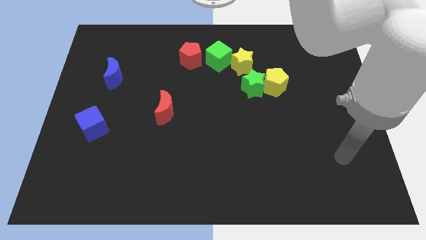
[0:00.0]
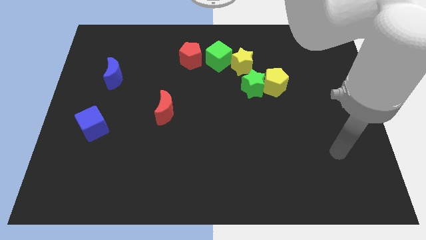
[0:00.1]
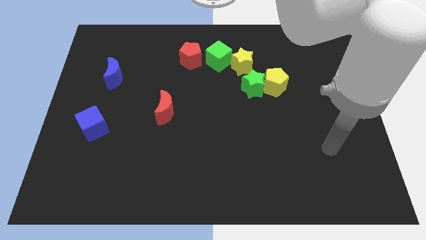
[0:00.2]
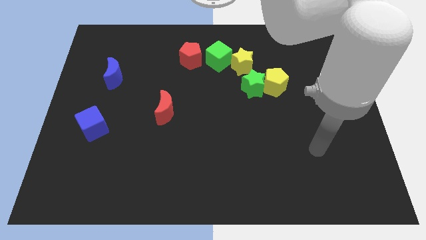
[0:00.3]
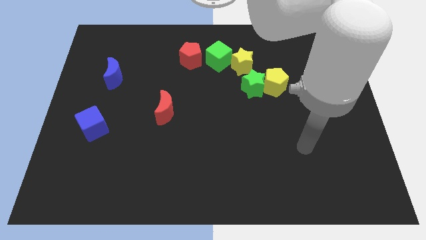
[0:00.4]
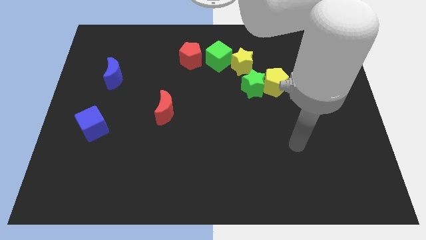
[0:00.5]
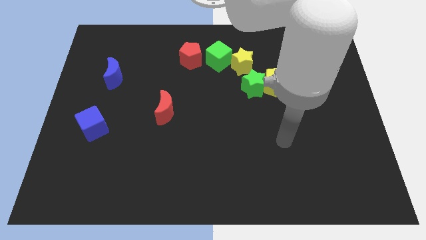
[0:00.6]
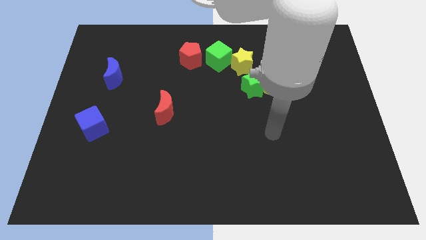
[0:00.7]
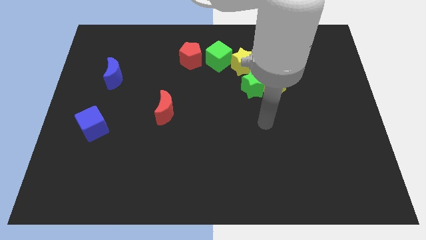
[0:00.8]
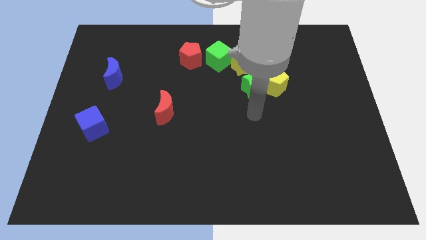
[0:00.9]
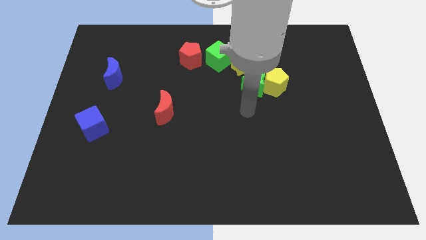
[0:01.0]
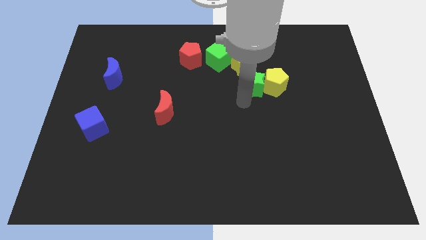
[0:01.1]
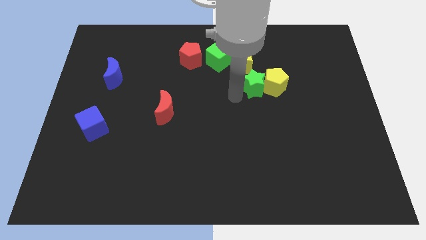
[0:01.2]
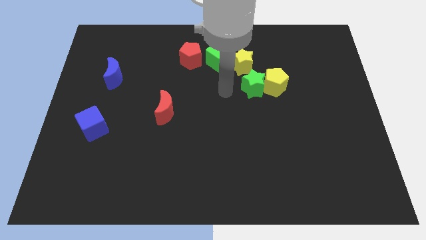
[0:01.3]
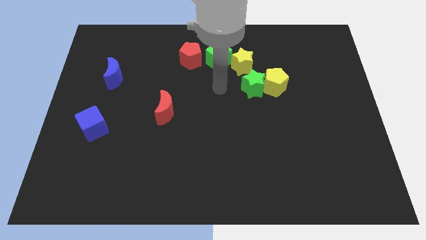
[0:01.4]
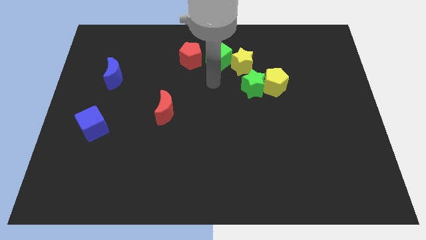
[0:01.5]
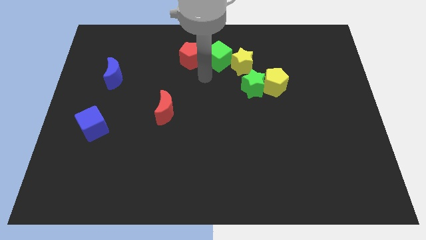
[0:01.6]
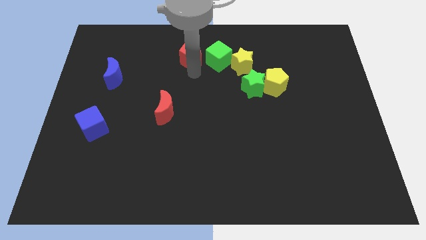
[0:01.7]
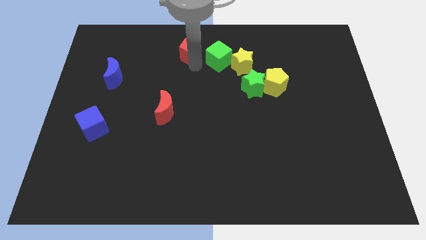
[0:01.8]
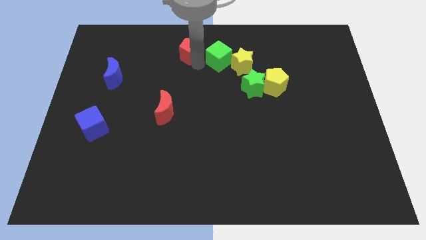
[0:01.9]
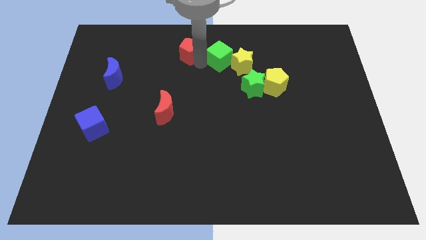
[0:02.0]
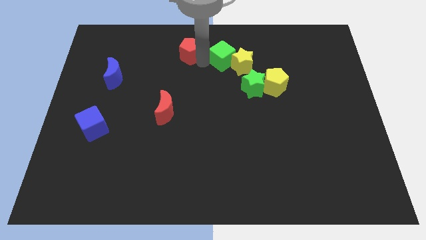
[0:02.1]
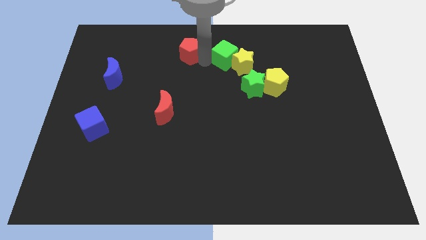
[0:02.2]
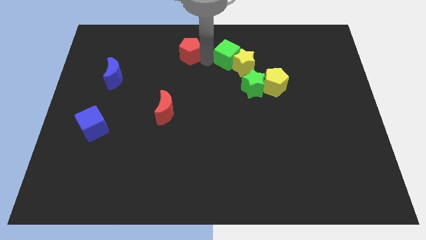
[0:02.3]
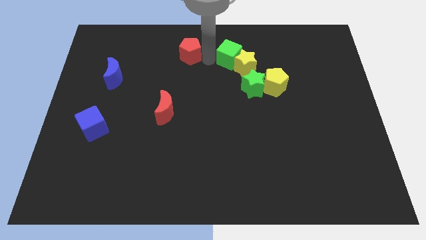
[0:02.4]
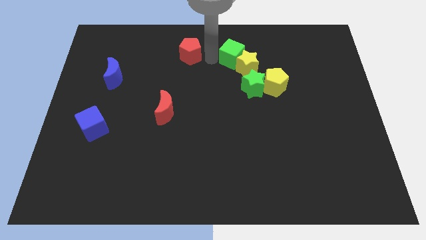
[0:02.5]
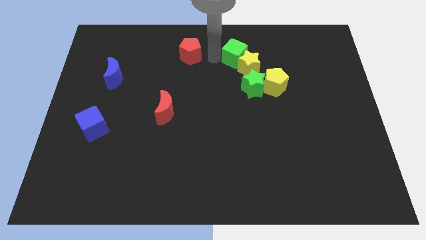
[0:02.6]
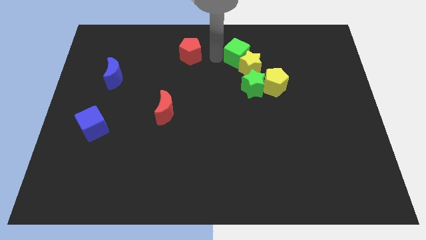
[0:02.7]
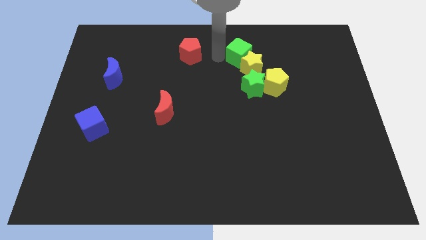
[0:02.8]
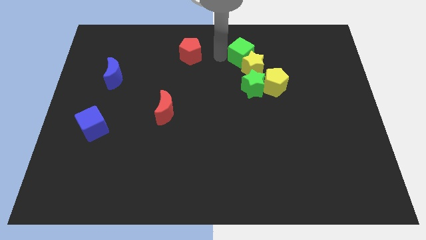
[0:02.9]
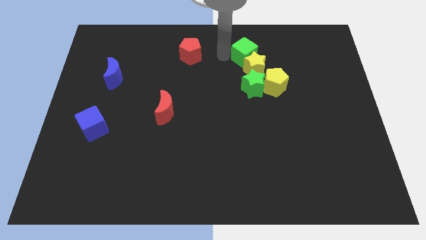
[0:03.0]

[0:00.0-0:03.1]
slightly move the green cube right

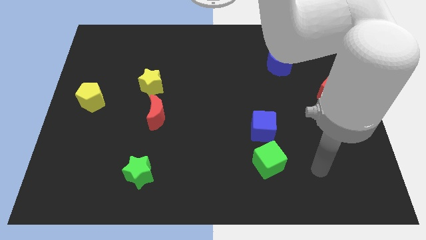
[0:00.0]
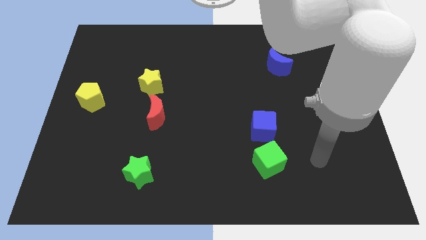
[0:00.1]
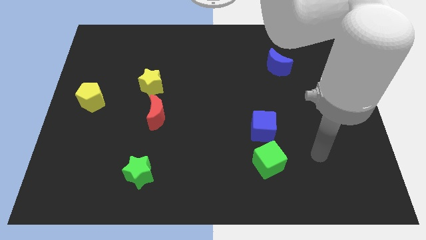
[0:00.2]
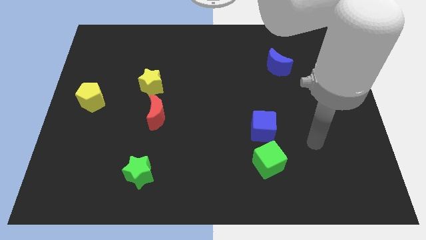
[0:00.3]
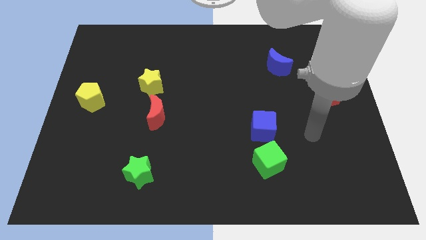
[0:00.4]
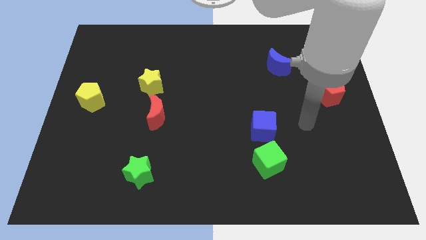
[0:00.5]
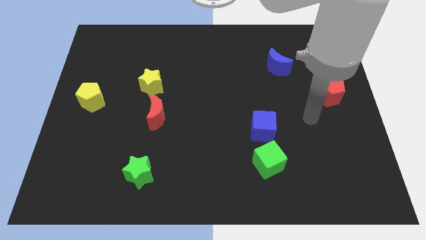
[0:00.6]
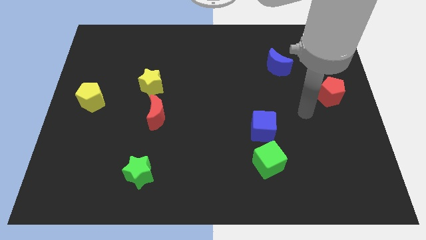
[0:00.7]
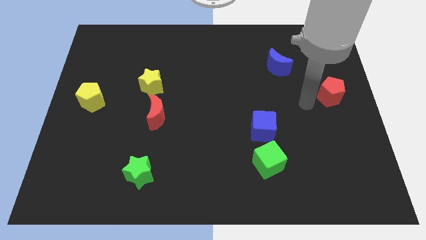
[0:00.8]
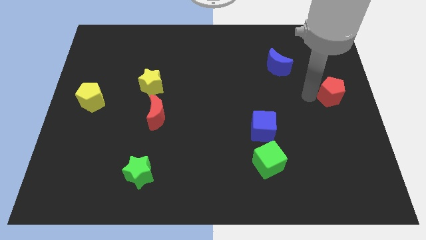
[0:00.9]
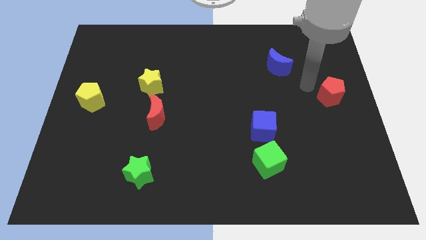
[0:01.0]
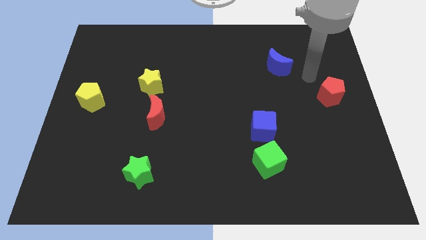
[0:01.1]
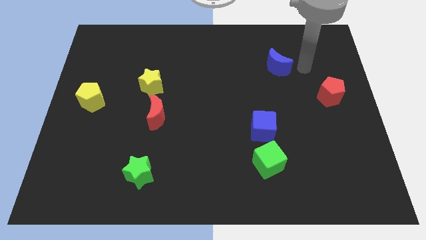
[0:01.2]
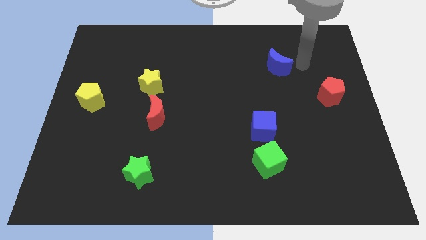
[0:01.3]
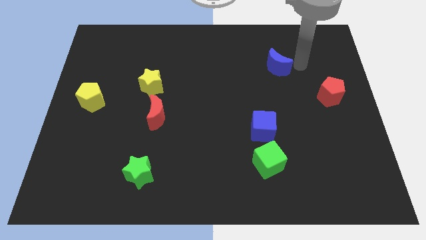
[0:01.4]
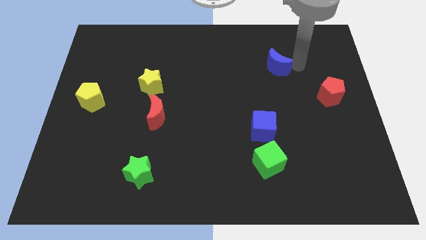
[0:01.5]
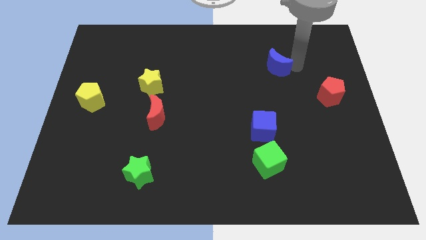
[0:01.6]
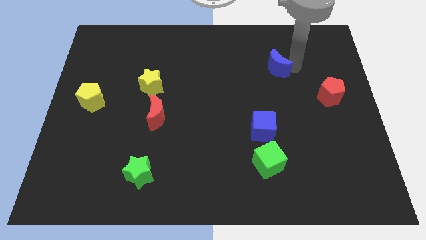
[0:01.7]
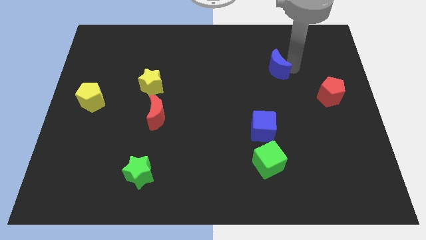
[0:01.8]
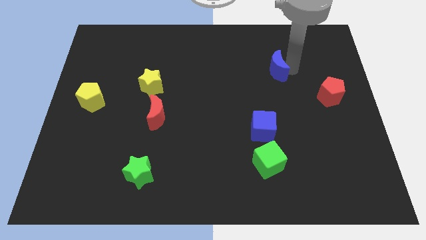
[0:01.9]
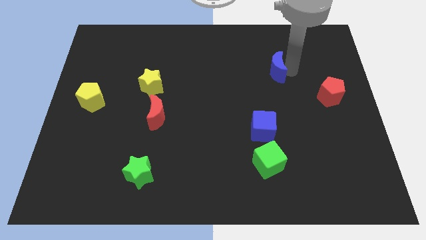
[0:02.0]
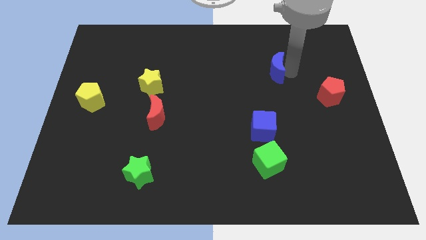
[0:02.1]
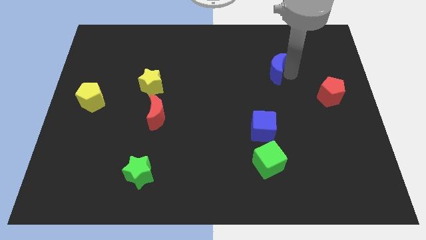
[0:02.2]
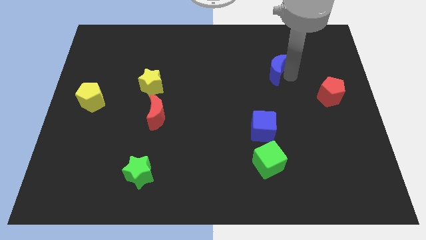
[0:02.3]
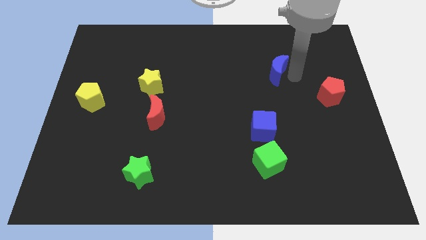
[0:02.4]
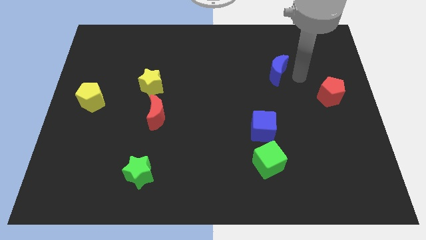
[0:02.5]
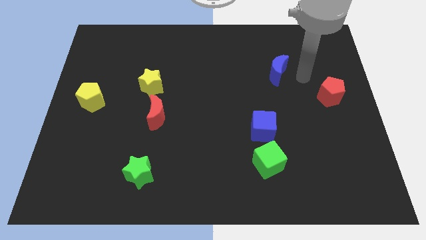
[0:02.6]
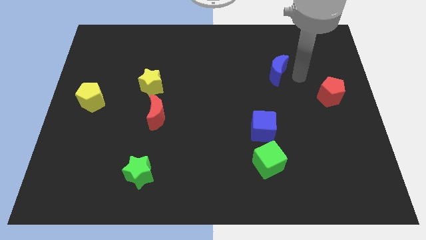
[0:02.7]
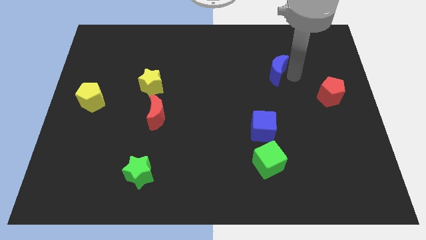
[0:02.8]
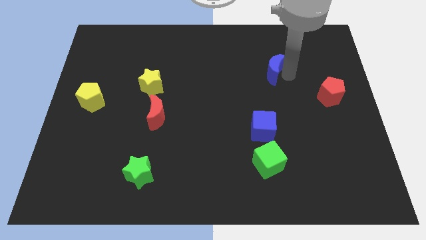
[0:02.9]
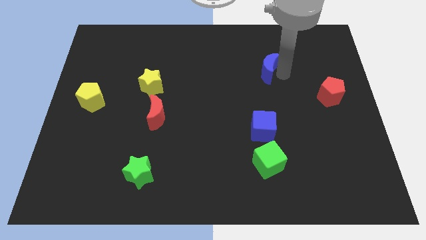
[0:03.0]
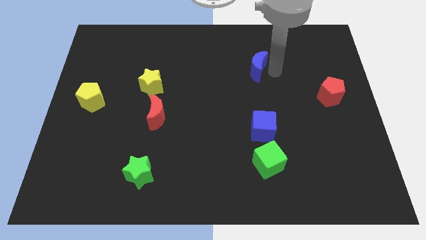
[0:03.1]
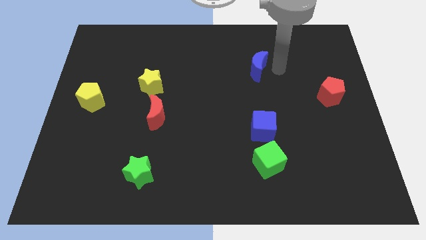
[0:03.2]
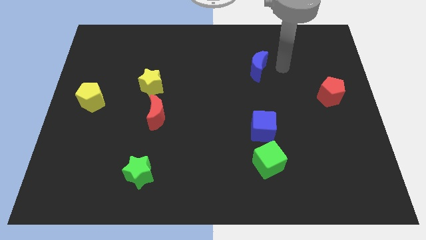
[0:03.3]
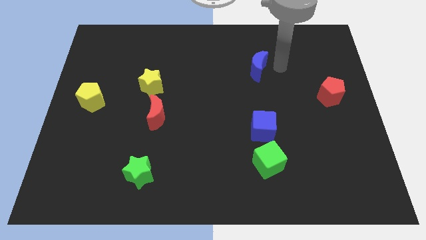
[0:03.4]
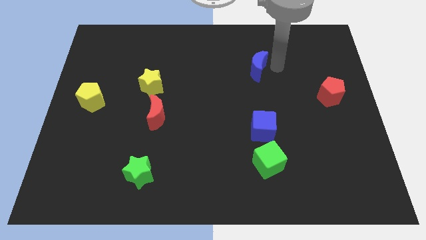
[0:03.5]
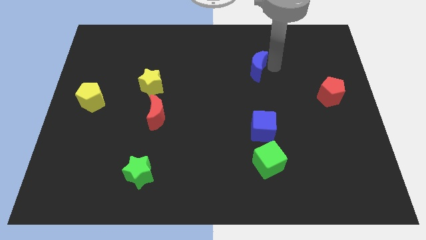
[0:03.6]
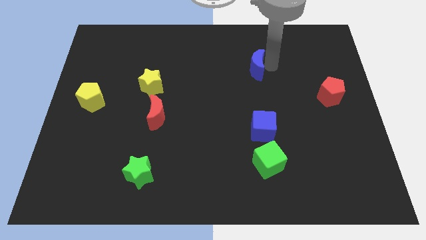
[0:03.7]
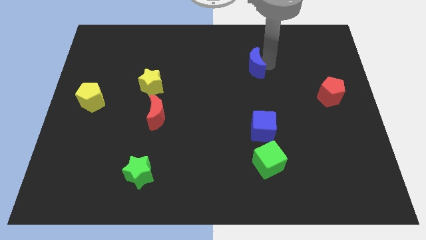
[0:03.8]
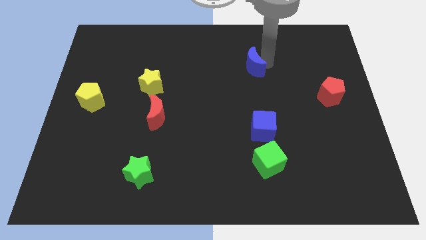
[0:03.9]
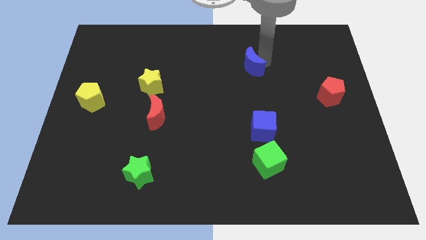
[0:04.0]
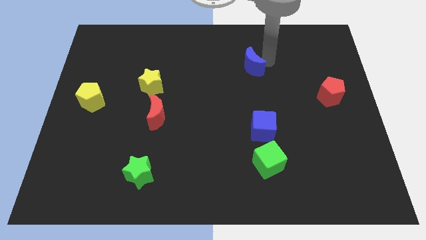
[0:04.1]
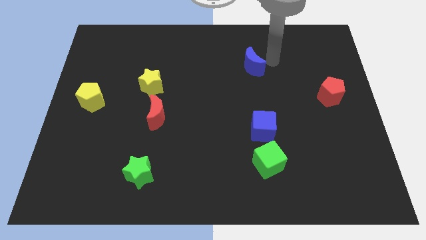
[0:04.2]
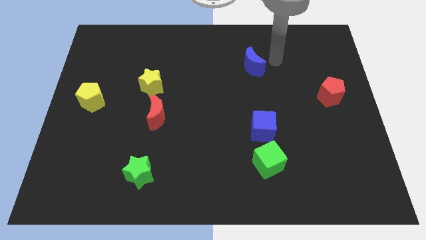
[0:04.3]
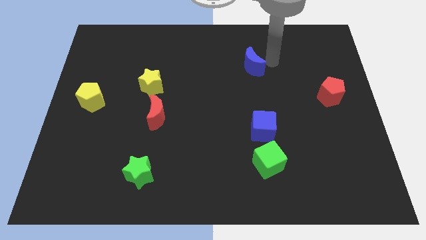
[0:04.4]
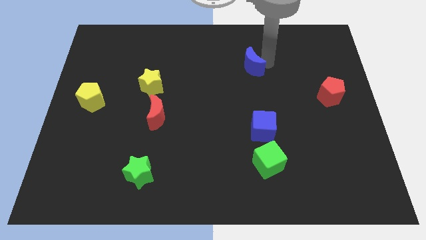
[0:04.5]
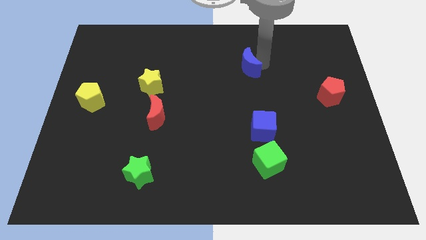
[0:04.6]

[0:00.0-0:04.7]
slide the blue moon left a little bit
